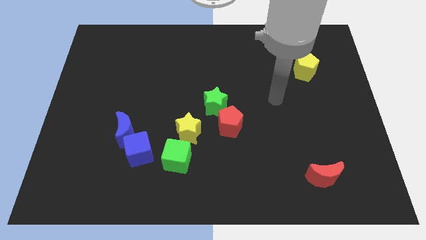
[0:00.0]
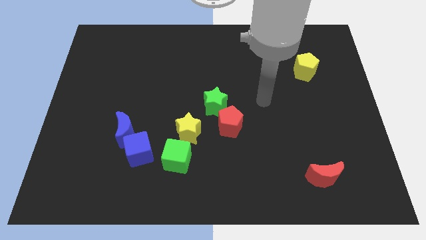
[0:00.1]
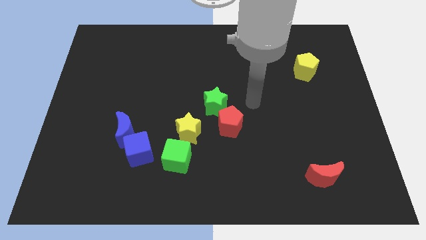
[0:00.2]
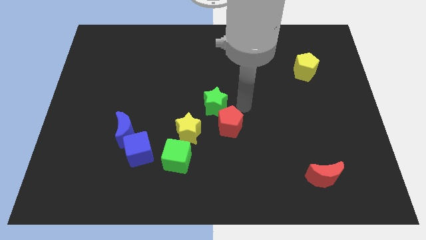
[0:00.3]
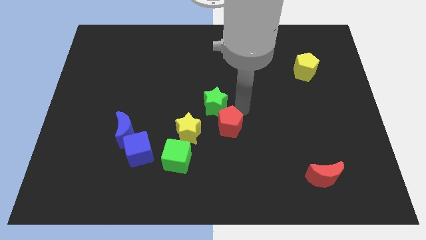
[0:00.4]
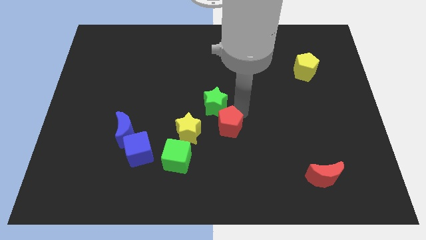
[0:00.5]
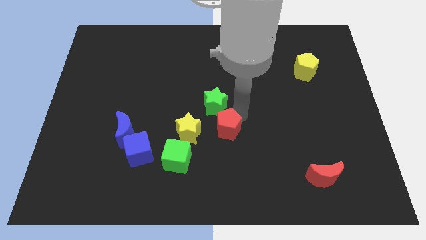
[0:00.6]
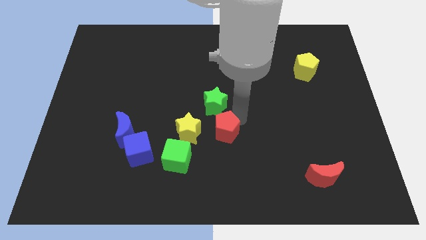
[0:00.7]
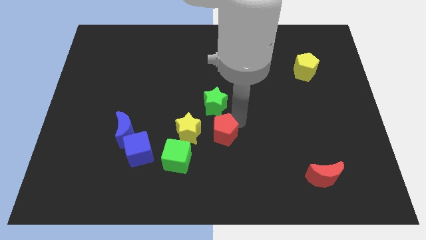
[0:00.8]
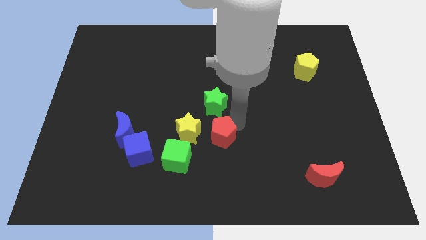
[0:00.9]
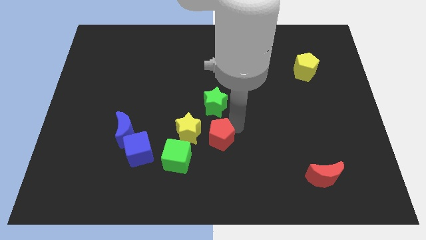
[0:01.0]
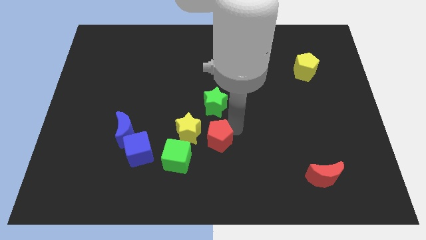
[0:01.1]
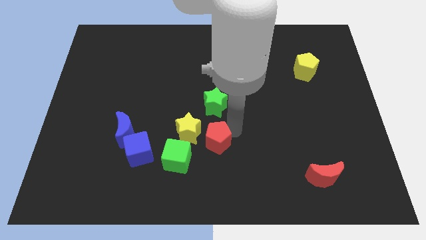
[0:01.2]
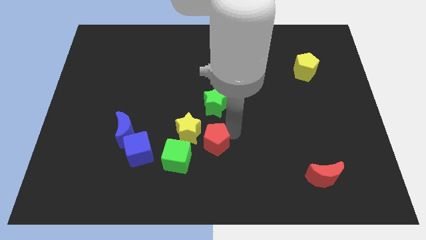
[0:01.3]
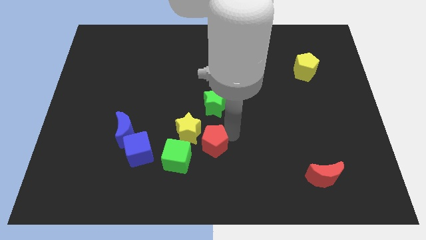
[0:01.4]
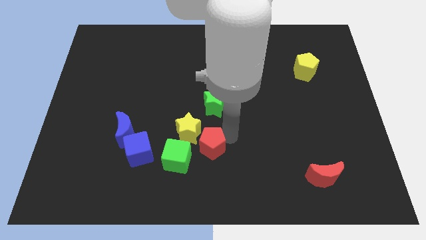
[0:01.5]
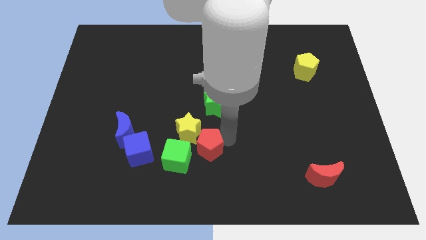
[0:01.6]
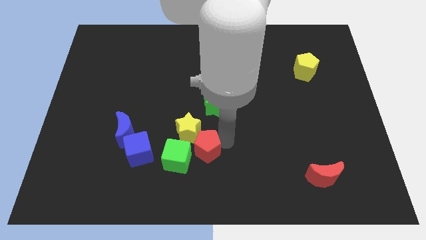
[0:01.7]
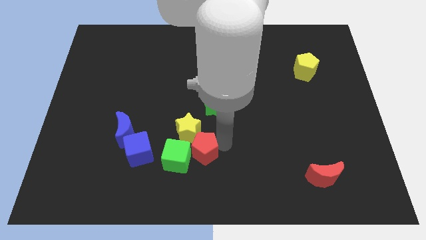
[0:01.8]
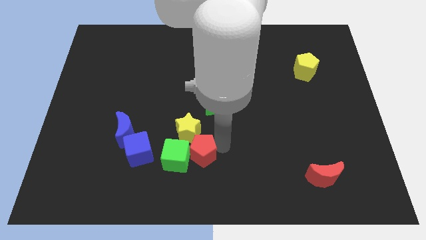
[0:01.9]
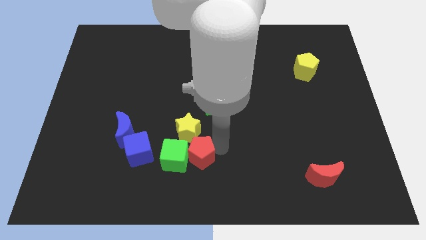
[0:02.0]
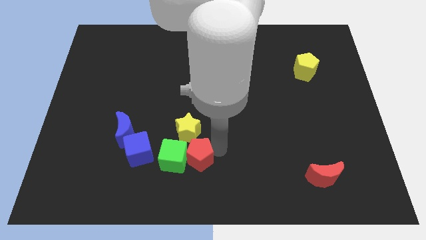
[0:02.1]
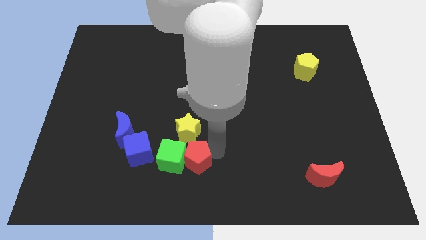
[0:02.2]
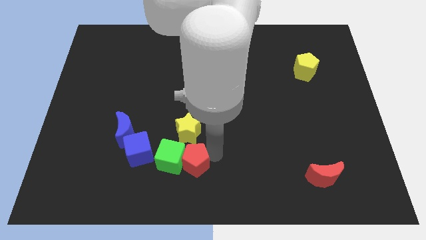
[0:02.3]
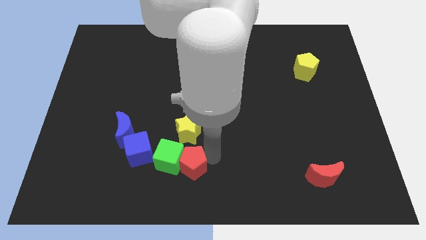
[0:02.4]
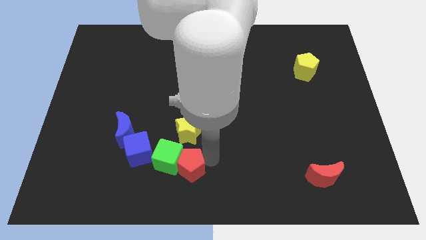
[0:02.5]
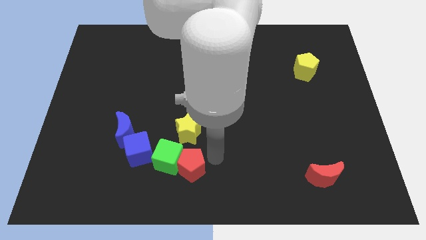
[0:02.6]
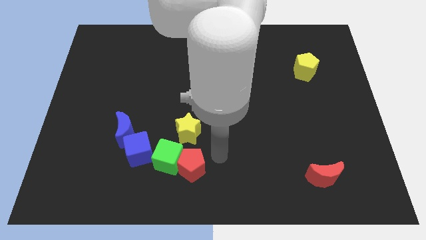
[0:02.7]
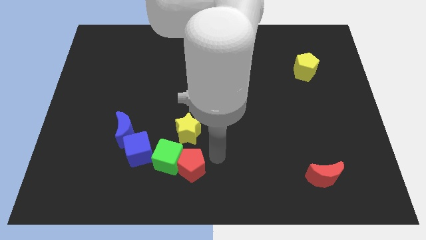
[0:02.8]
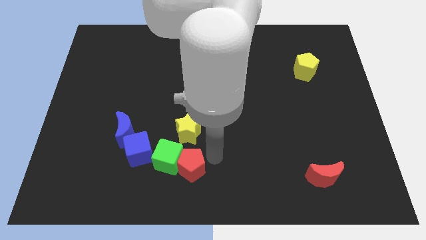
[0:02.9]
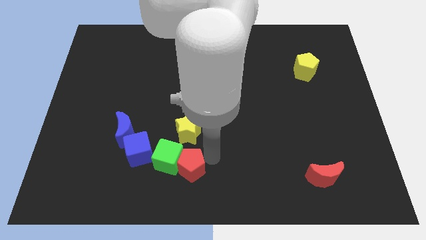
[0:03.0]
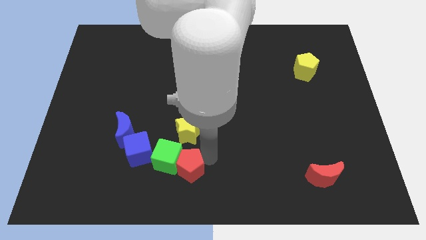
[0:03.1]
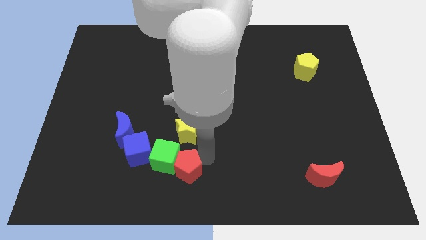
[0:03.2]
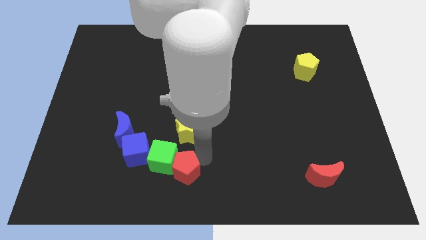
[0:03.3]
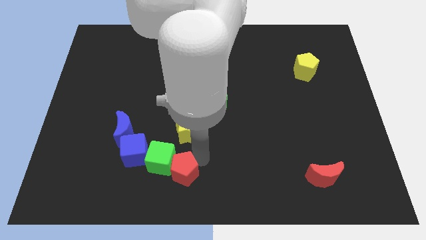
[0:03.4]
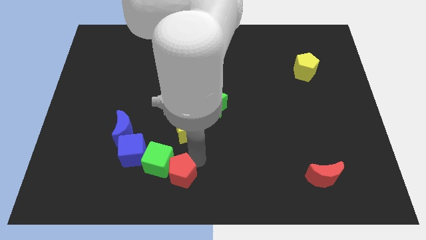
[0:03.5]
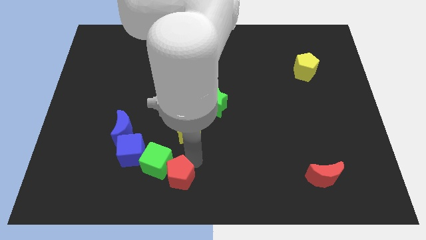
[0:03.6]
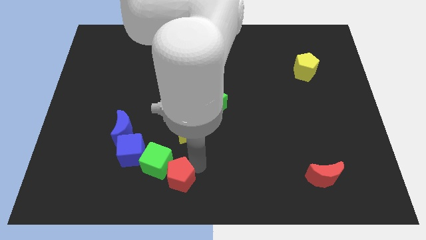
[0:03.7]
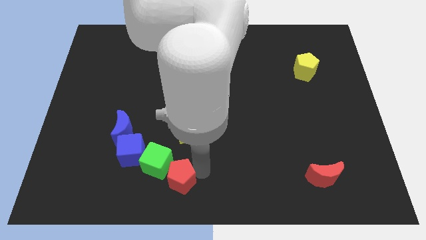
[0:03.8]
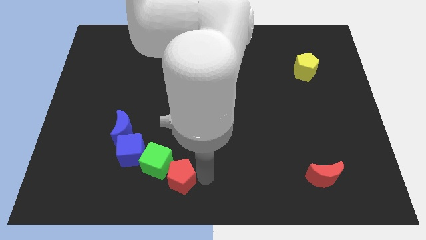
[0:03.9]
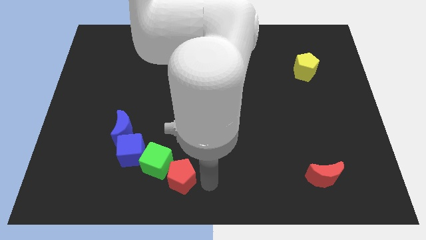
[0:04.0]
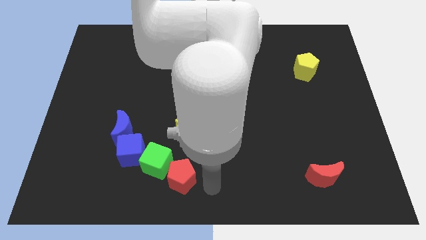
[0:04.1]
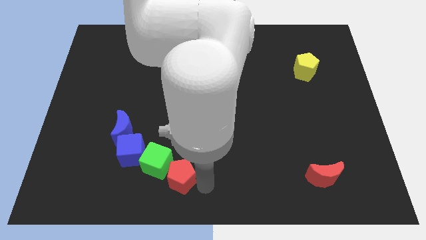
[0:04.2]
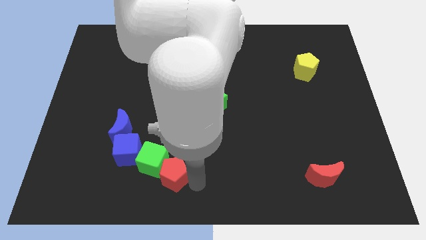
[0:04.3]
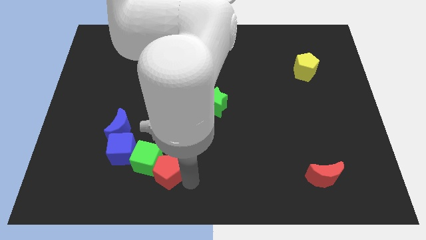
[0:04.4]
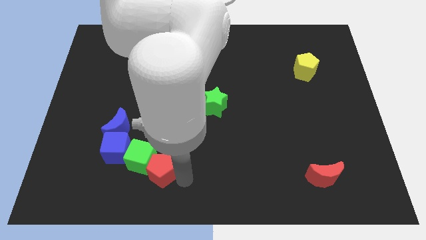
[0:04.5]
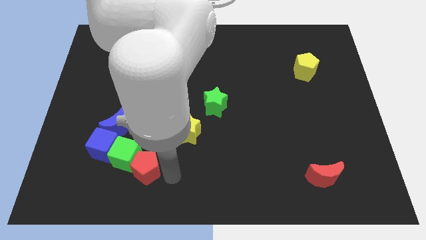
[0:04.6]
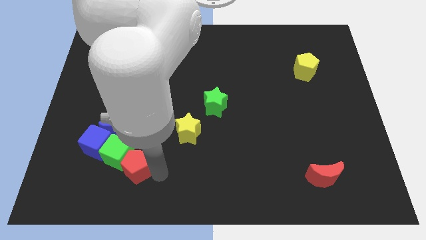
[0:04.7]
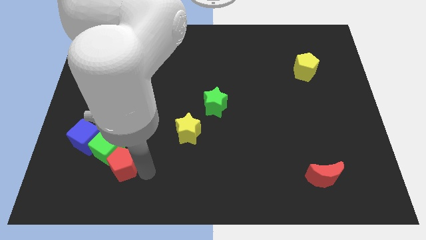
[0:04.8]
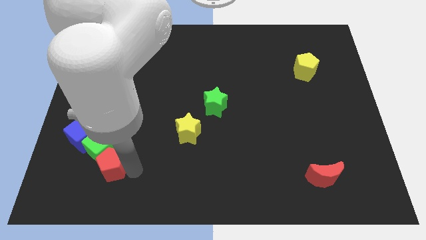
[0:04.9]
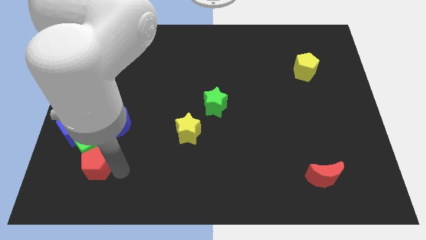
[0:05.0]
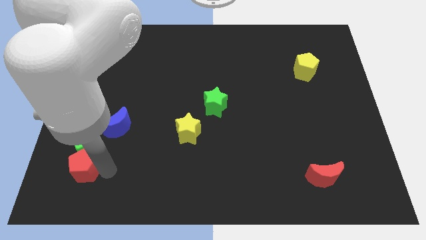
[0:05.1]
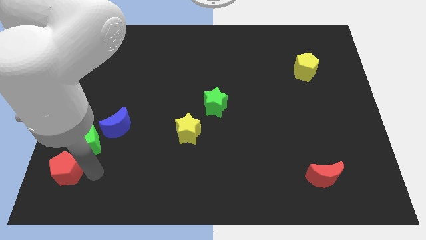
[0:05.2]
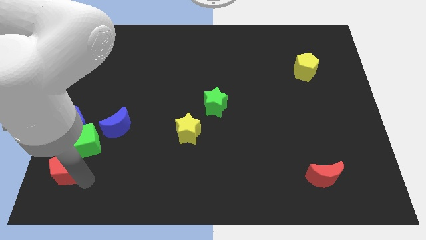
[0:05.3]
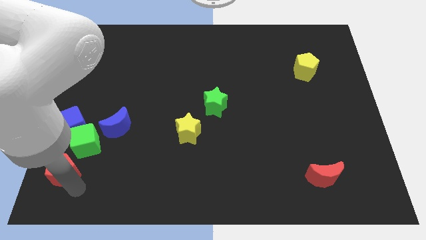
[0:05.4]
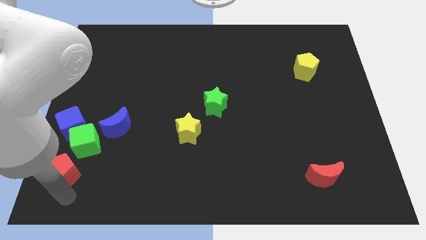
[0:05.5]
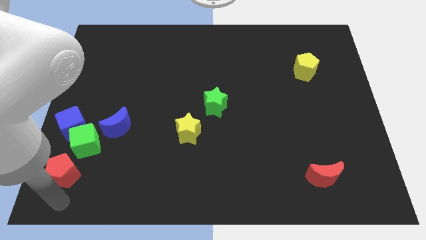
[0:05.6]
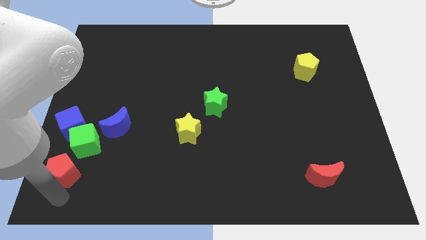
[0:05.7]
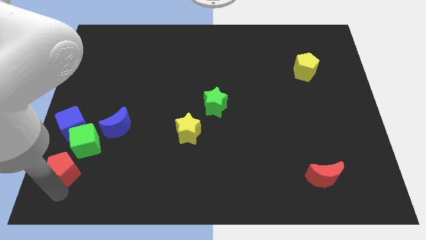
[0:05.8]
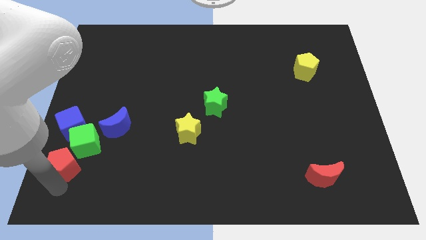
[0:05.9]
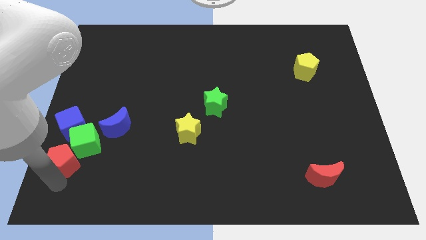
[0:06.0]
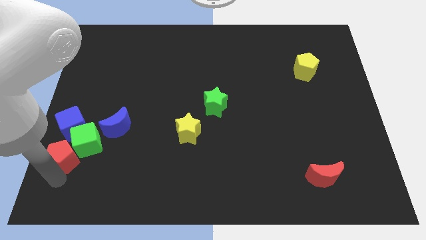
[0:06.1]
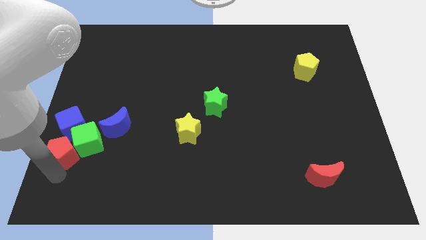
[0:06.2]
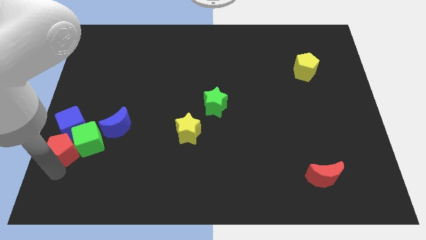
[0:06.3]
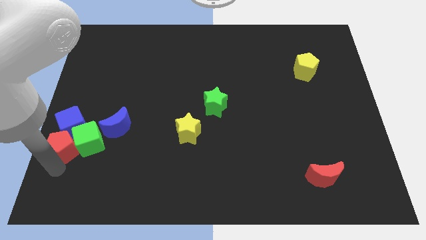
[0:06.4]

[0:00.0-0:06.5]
put the red pentagon close to the blue cube
